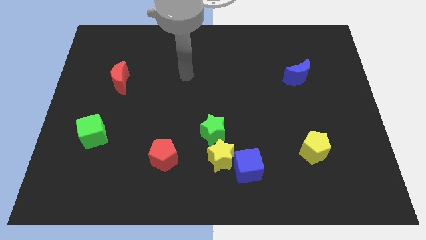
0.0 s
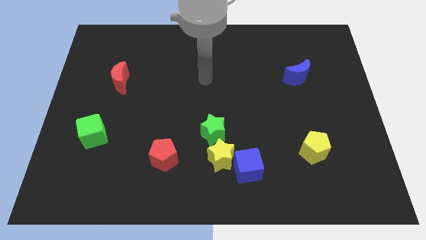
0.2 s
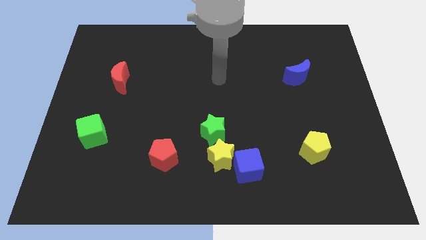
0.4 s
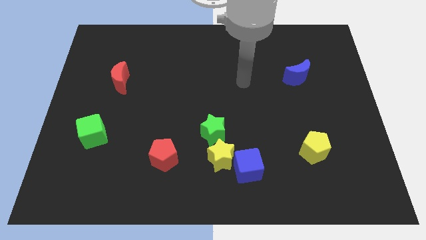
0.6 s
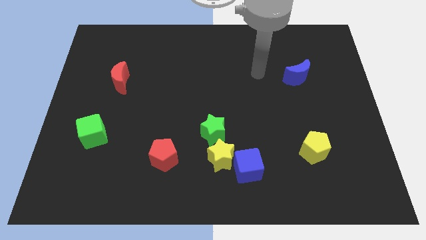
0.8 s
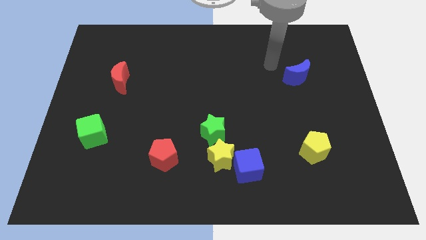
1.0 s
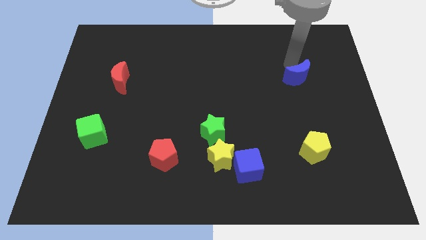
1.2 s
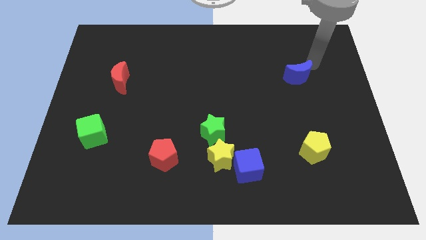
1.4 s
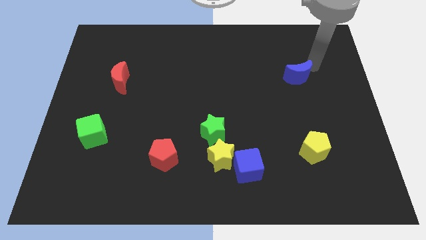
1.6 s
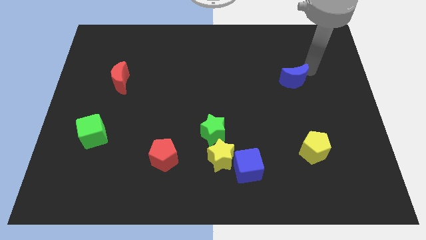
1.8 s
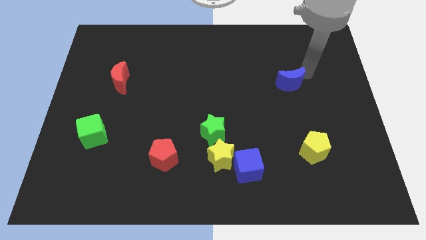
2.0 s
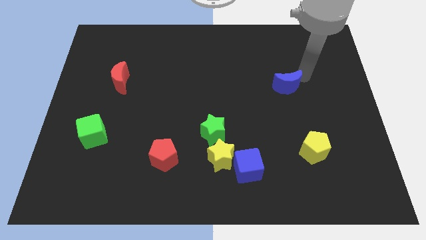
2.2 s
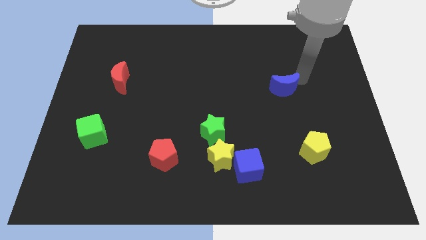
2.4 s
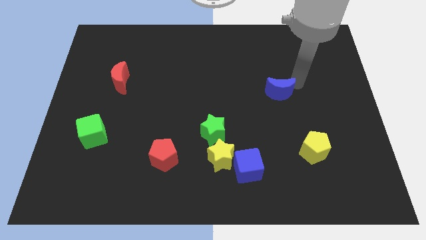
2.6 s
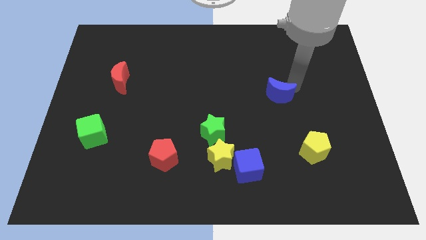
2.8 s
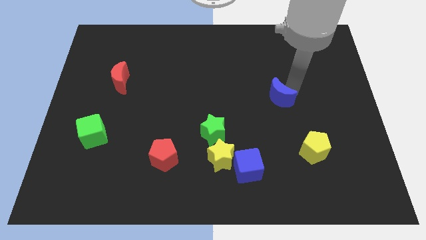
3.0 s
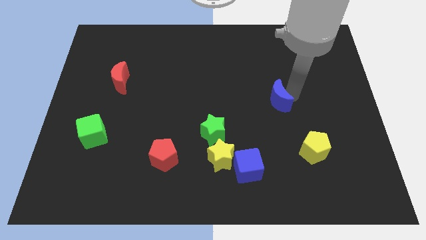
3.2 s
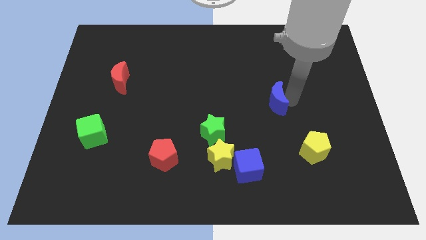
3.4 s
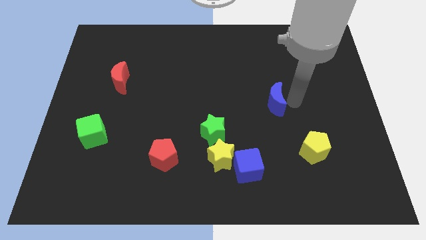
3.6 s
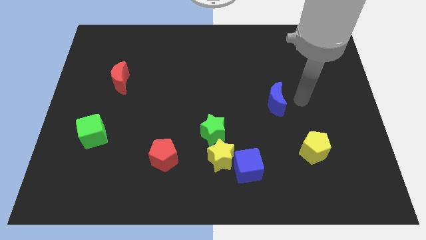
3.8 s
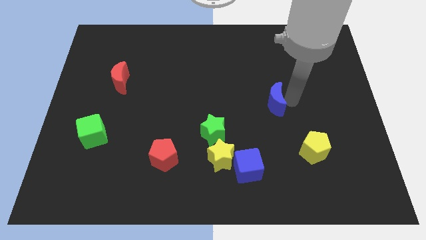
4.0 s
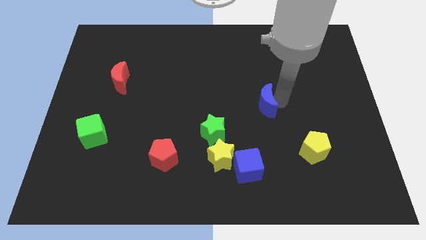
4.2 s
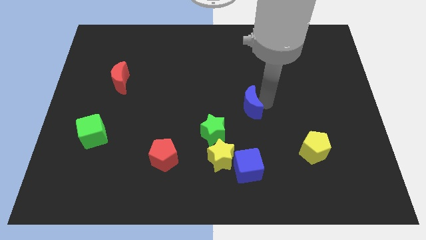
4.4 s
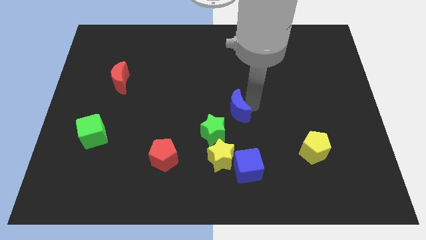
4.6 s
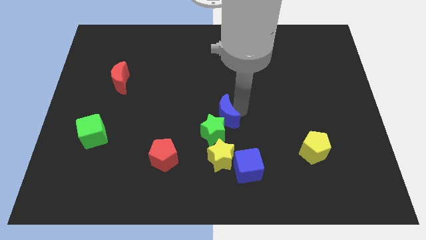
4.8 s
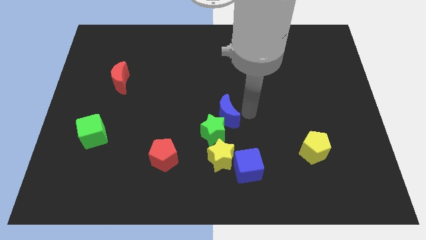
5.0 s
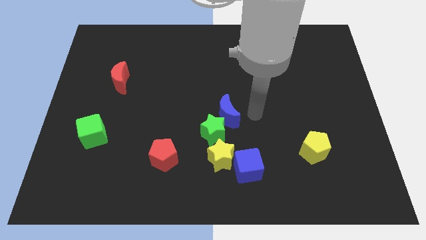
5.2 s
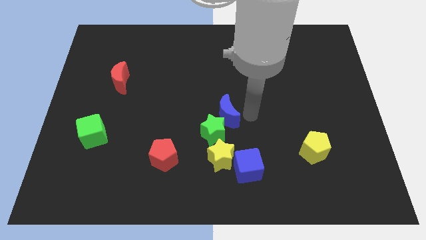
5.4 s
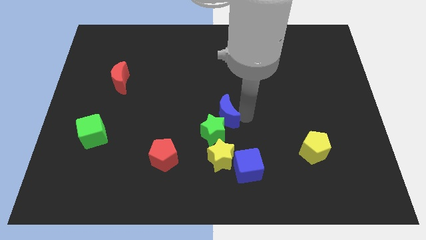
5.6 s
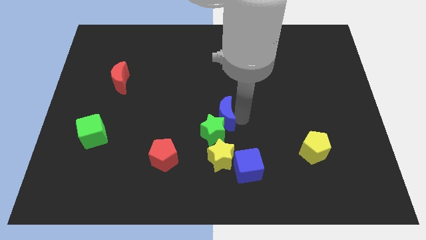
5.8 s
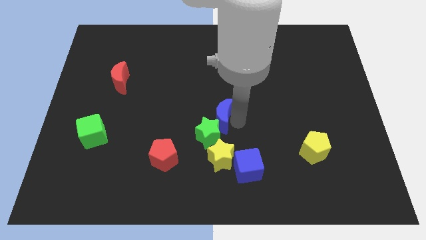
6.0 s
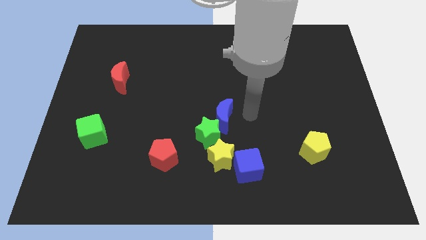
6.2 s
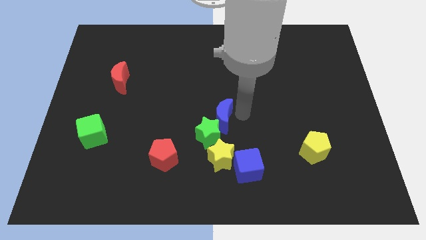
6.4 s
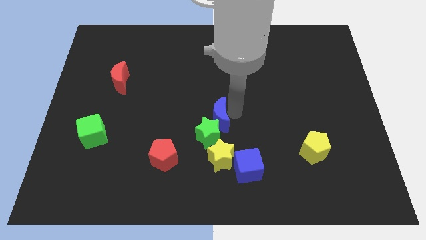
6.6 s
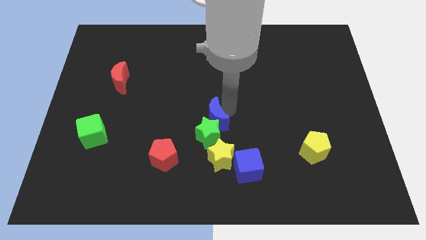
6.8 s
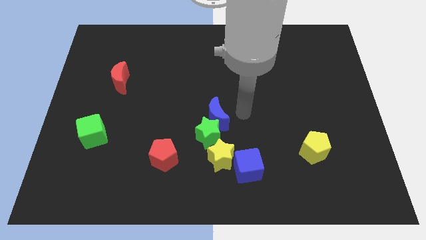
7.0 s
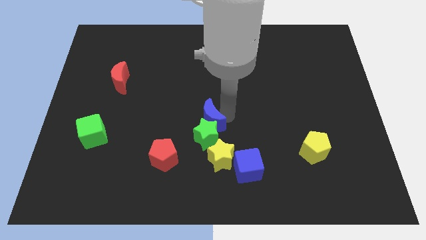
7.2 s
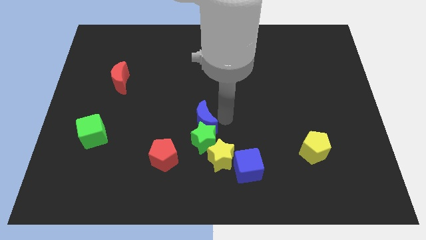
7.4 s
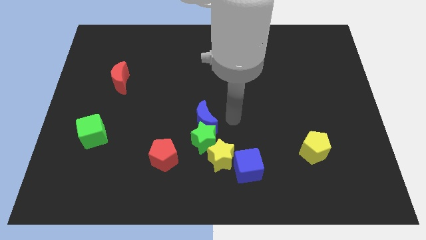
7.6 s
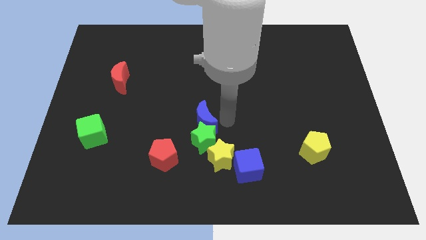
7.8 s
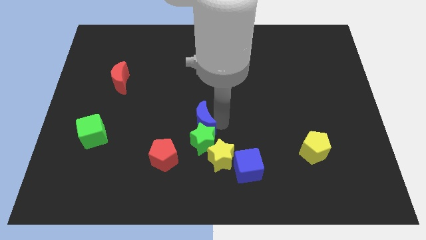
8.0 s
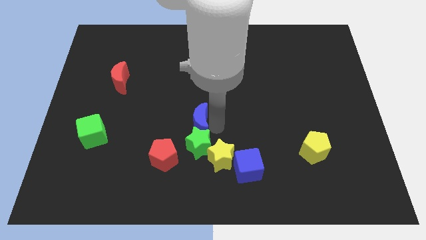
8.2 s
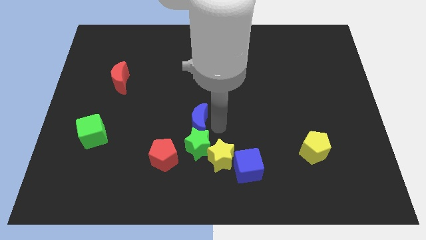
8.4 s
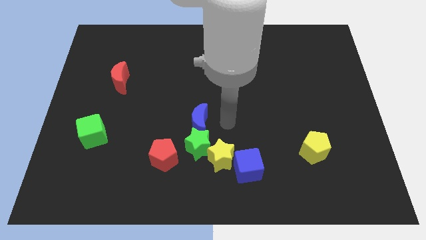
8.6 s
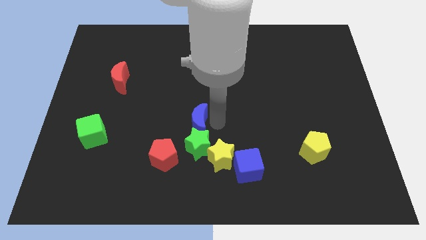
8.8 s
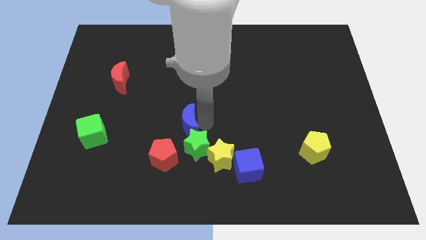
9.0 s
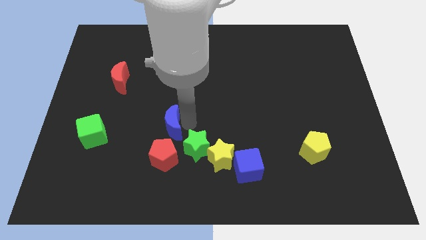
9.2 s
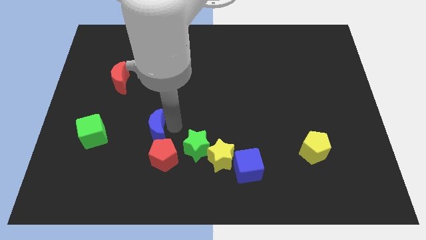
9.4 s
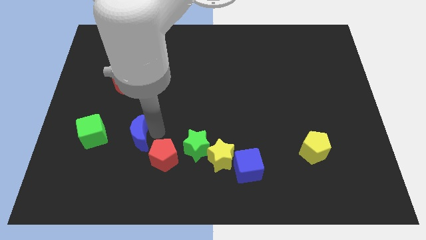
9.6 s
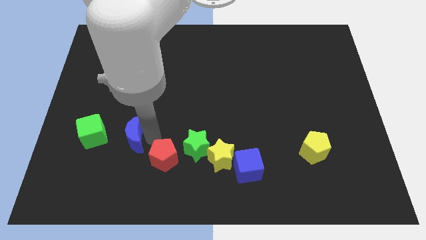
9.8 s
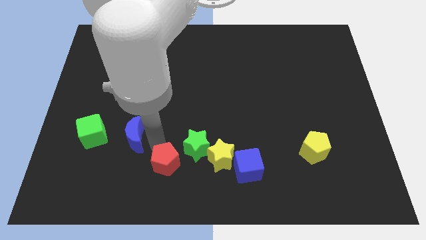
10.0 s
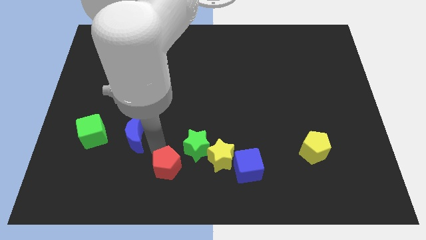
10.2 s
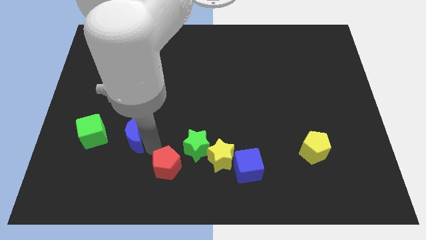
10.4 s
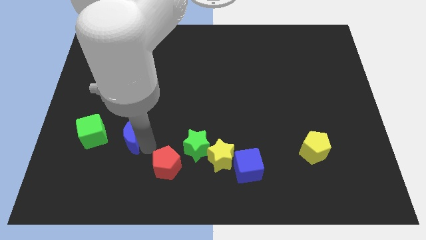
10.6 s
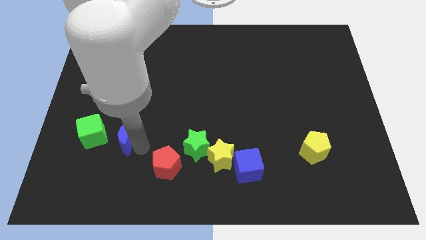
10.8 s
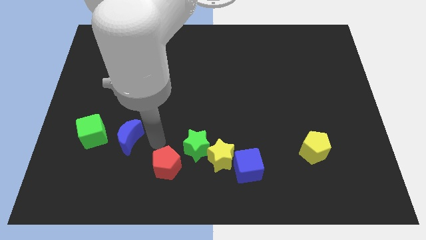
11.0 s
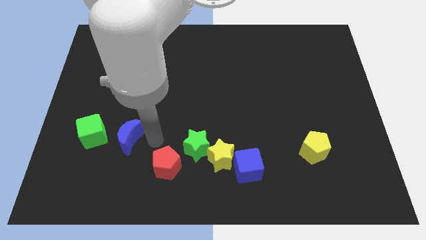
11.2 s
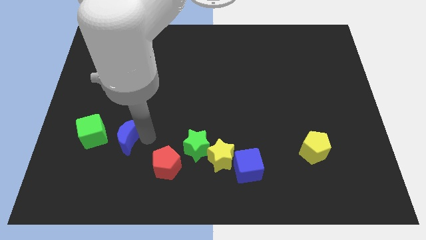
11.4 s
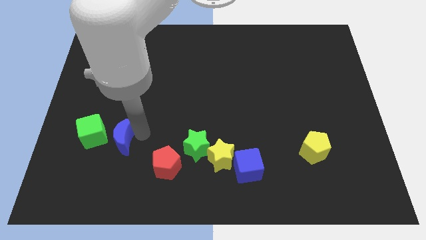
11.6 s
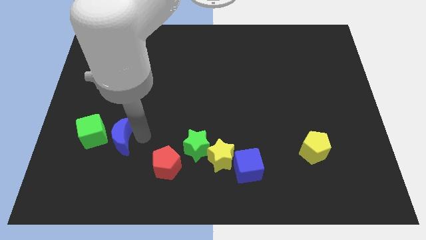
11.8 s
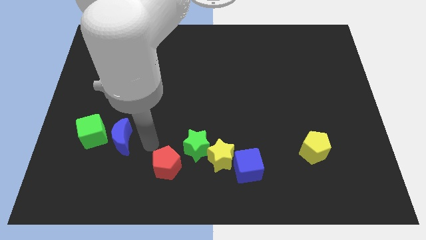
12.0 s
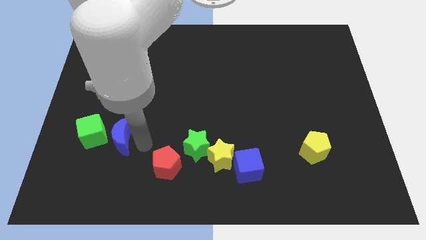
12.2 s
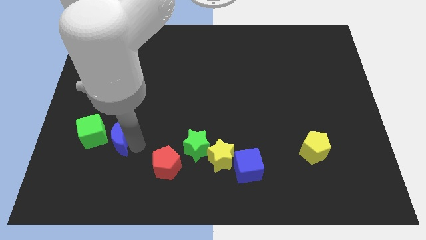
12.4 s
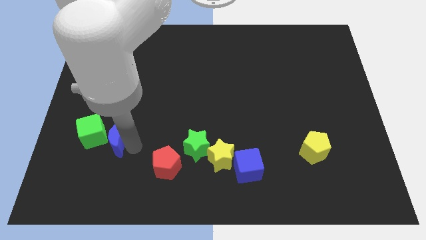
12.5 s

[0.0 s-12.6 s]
put the blue moon next to the green cube

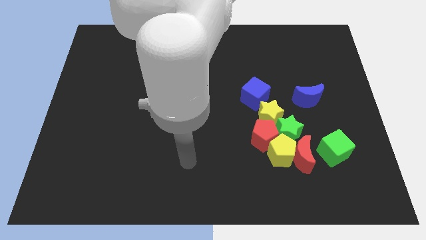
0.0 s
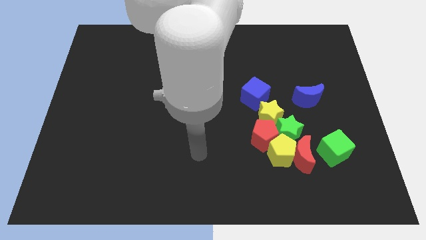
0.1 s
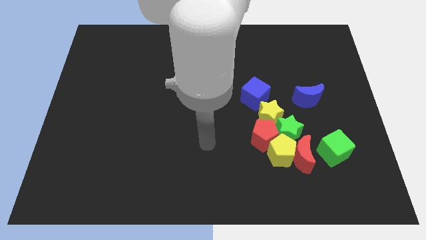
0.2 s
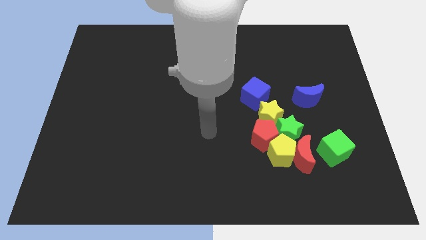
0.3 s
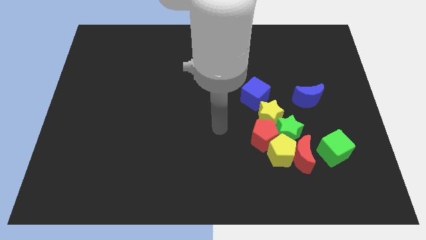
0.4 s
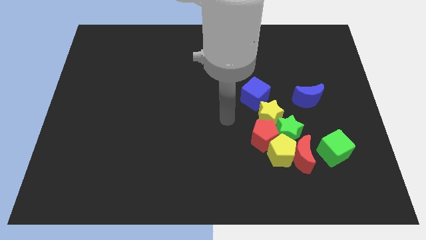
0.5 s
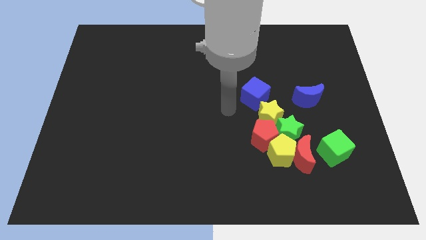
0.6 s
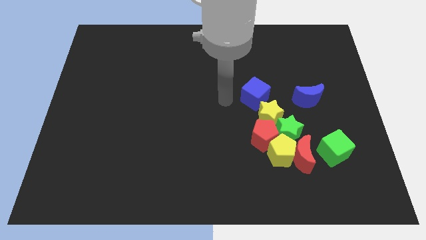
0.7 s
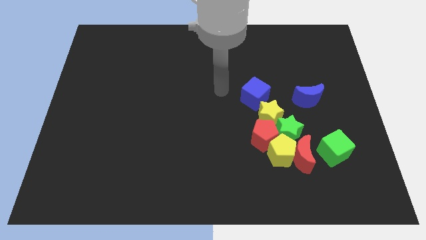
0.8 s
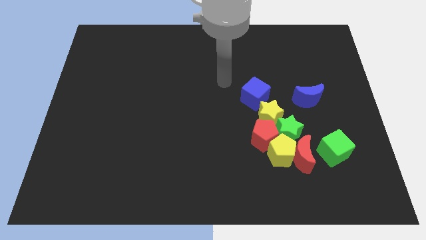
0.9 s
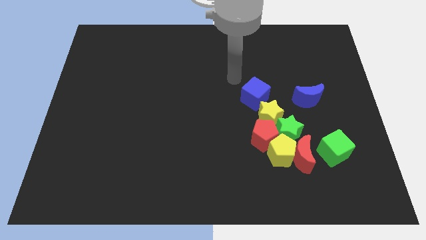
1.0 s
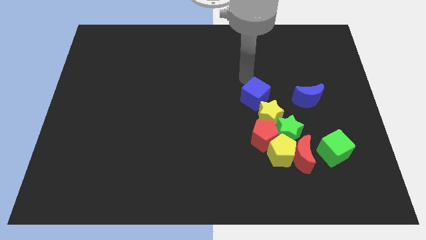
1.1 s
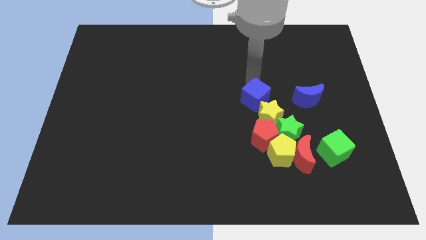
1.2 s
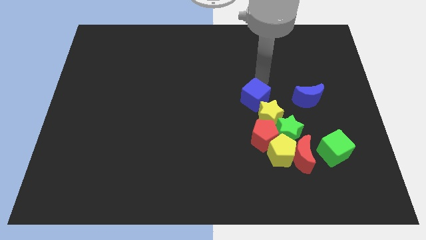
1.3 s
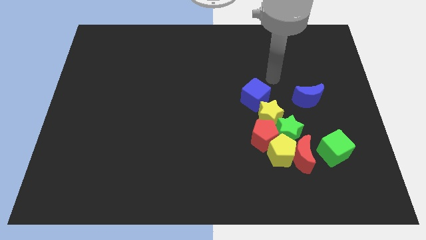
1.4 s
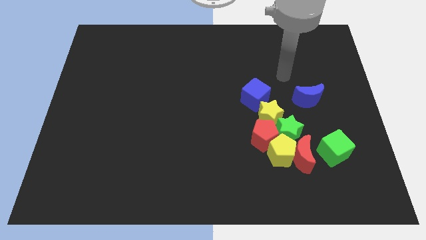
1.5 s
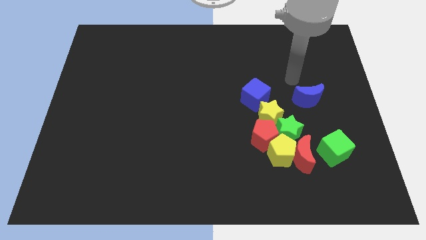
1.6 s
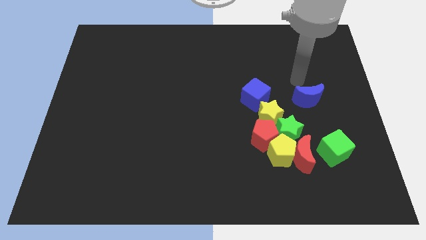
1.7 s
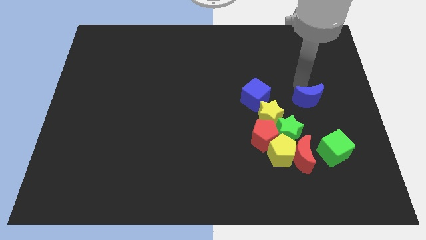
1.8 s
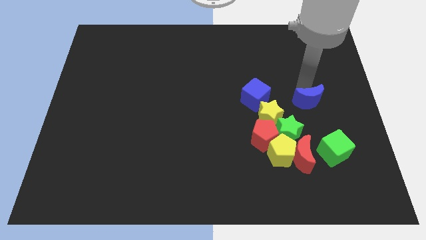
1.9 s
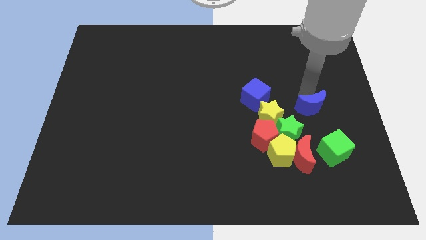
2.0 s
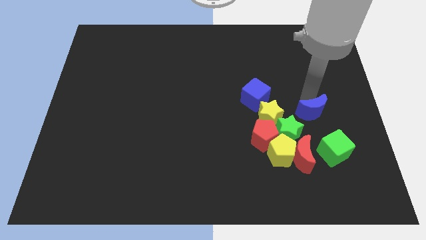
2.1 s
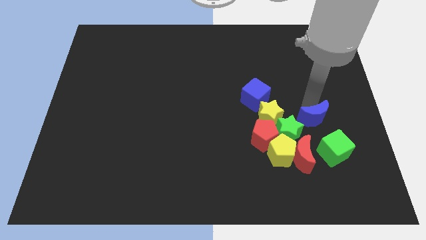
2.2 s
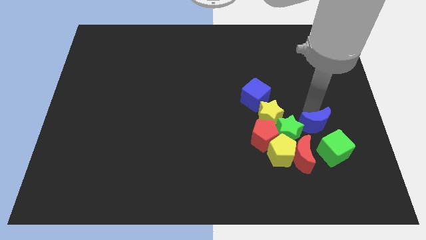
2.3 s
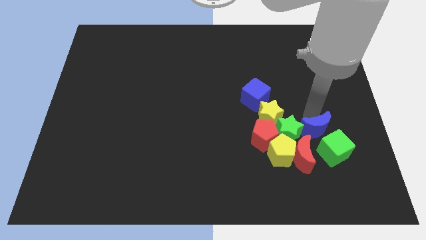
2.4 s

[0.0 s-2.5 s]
put the blue moon towards the green cube
